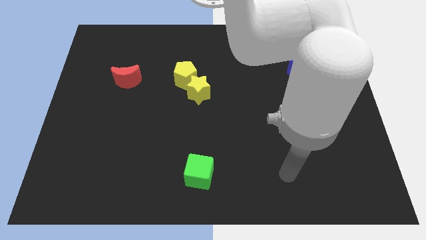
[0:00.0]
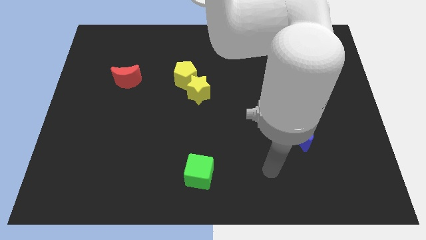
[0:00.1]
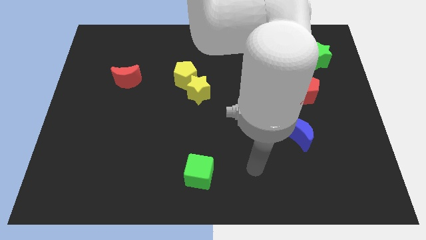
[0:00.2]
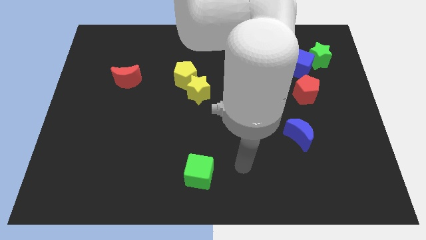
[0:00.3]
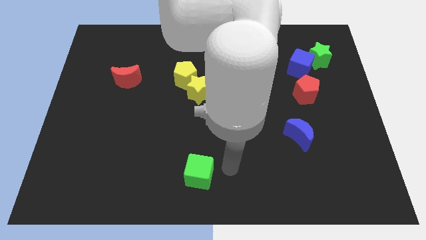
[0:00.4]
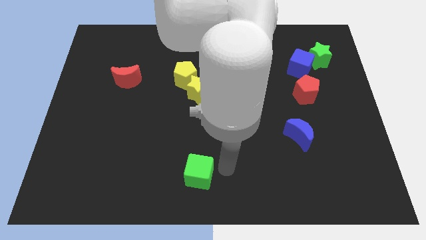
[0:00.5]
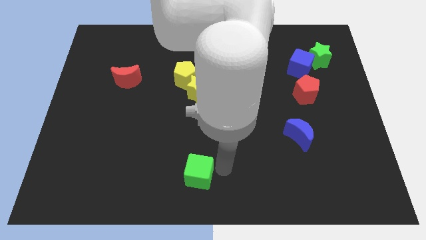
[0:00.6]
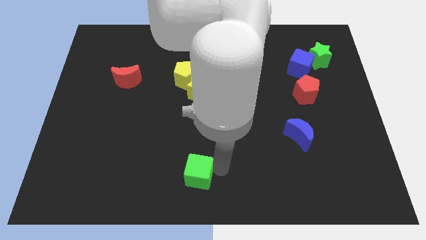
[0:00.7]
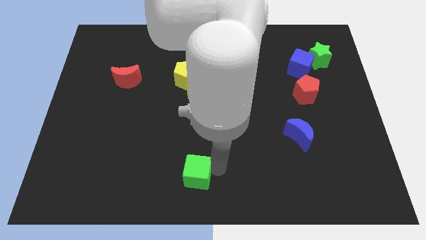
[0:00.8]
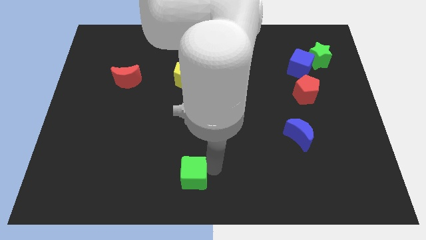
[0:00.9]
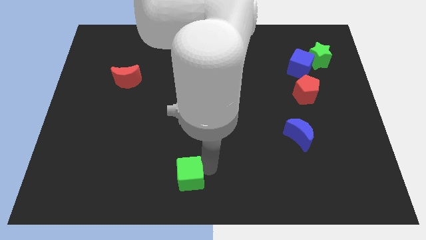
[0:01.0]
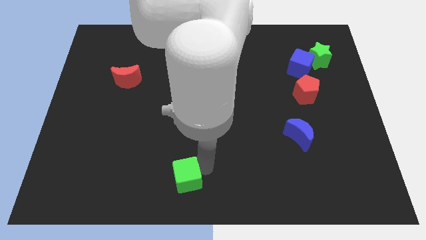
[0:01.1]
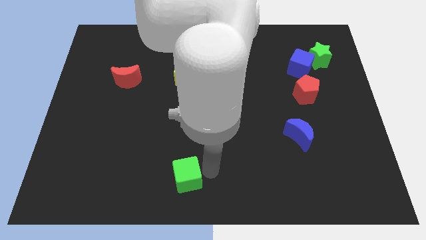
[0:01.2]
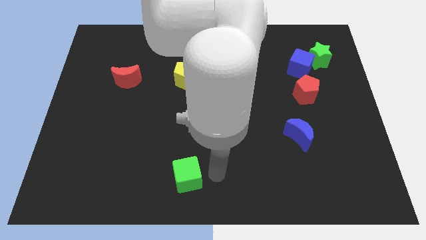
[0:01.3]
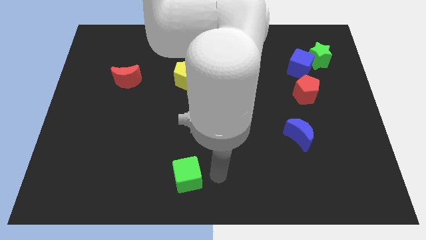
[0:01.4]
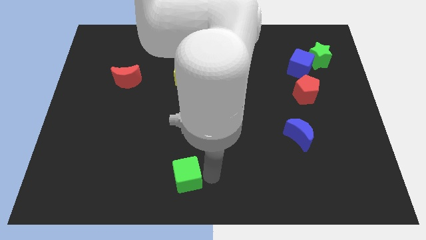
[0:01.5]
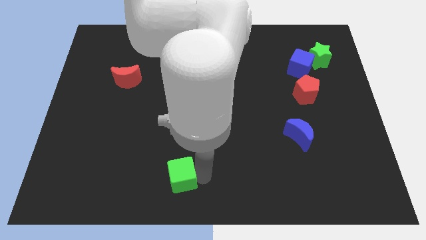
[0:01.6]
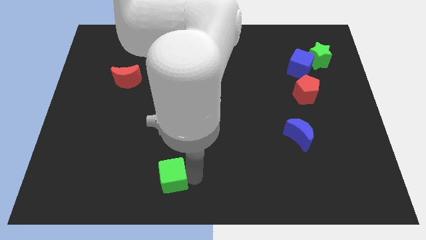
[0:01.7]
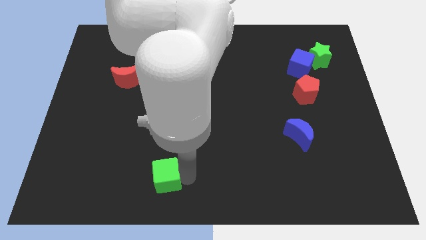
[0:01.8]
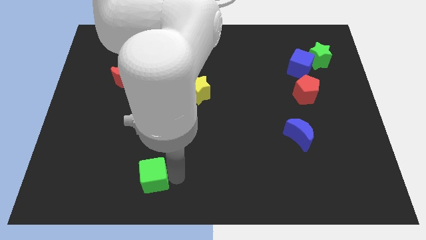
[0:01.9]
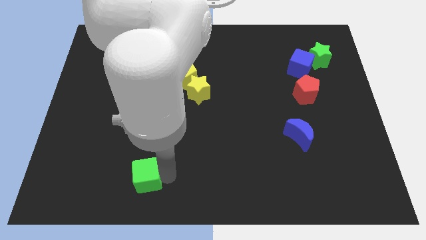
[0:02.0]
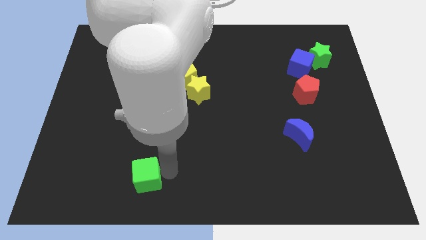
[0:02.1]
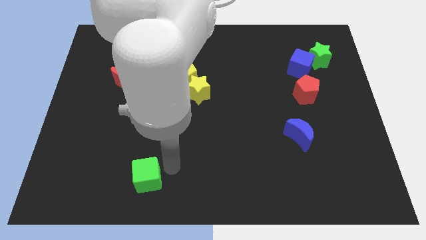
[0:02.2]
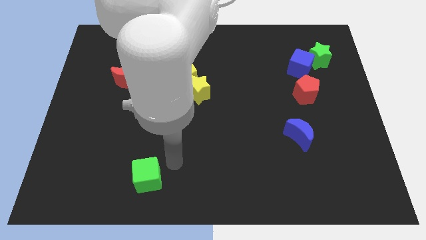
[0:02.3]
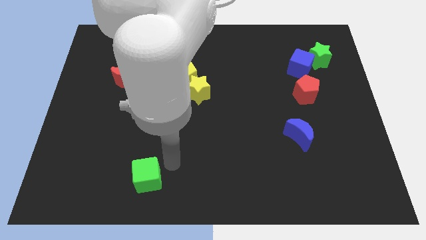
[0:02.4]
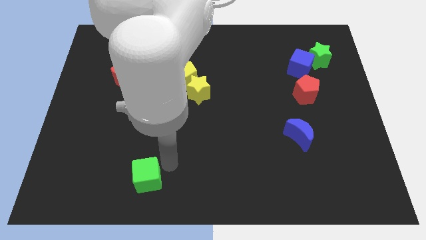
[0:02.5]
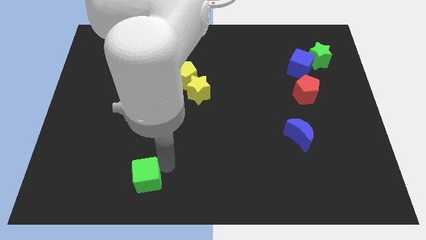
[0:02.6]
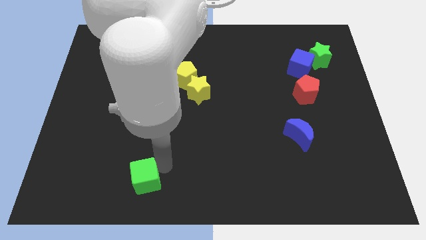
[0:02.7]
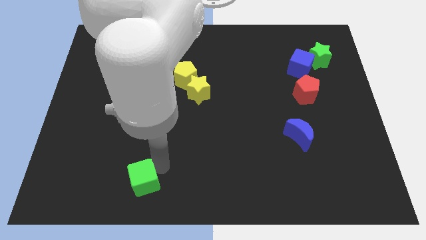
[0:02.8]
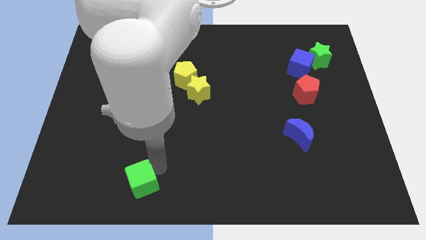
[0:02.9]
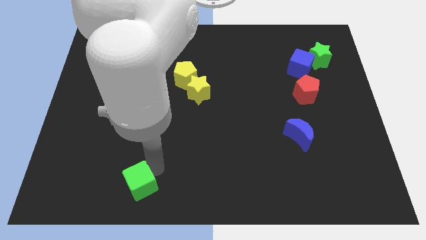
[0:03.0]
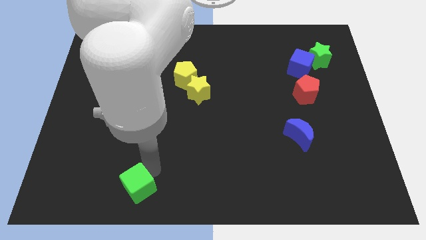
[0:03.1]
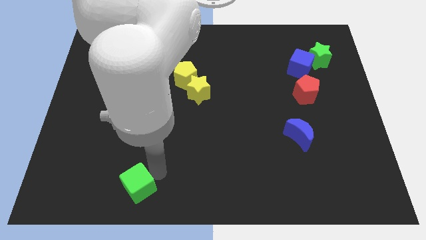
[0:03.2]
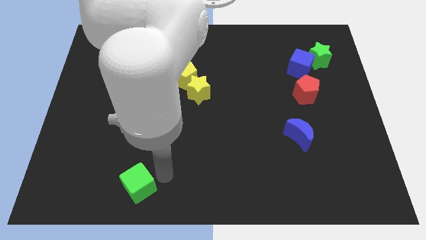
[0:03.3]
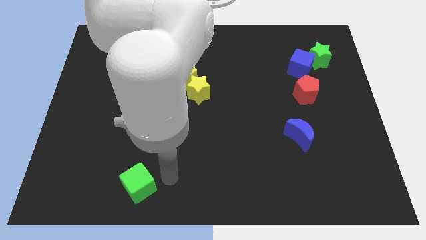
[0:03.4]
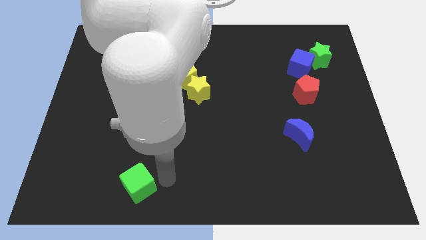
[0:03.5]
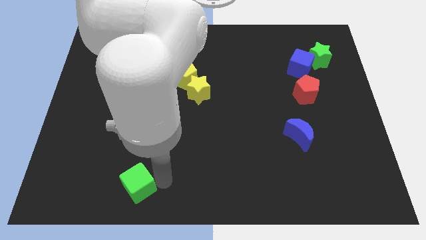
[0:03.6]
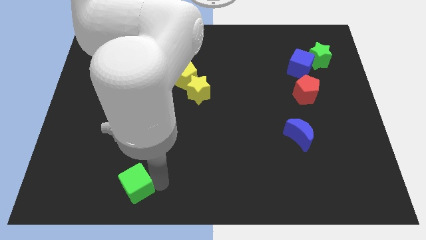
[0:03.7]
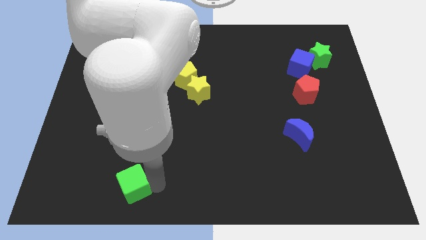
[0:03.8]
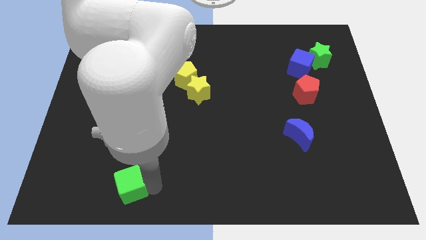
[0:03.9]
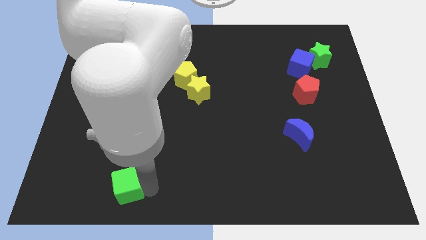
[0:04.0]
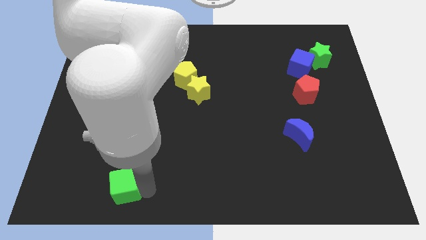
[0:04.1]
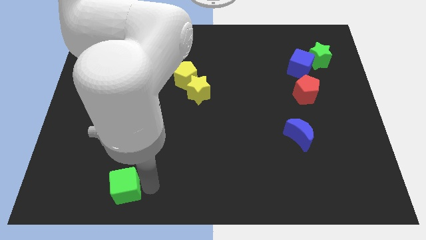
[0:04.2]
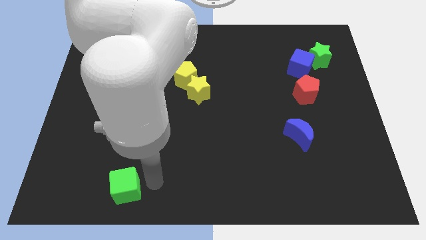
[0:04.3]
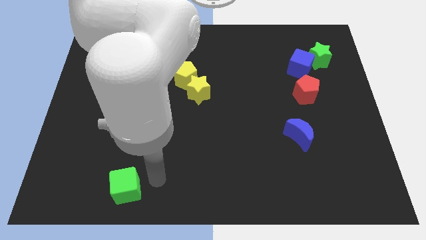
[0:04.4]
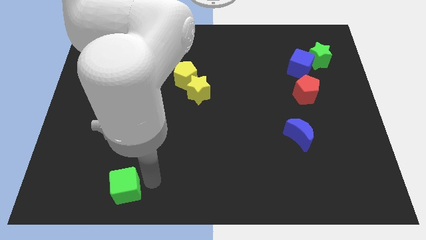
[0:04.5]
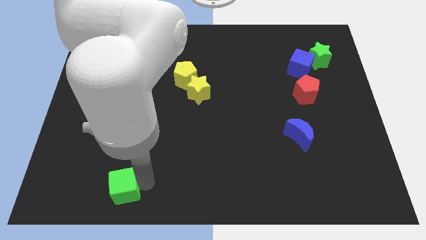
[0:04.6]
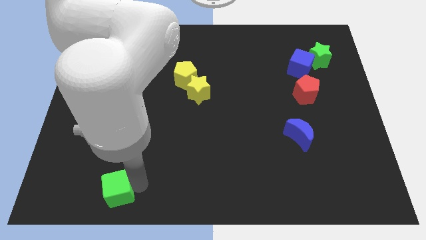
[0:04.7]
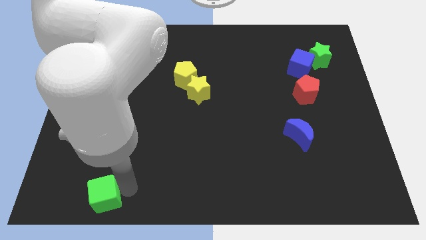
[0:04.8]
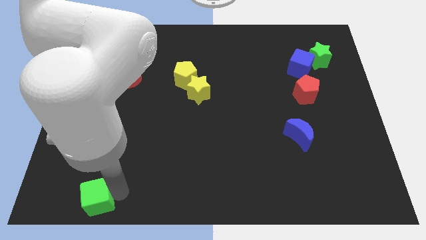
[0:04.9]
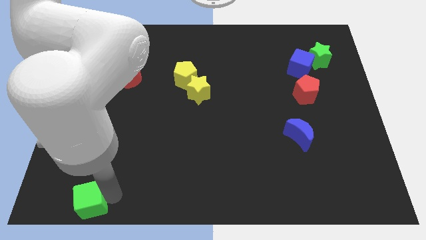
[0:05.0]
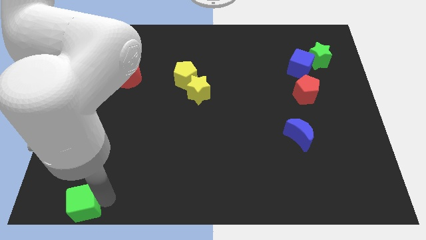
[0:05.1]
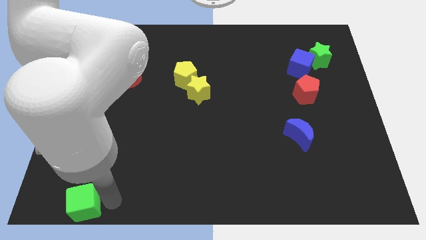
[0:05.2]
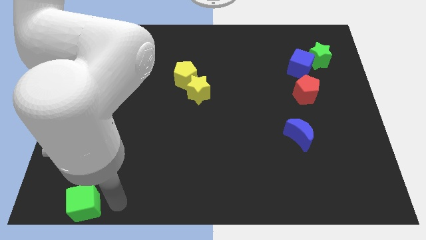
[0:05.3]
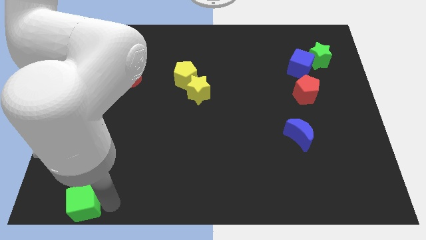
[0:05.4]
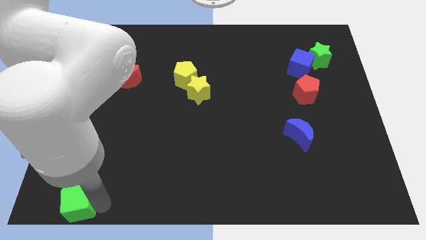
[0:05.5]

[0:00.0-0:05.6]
slide the green cube to the bottom left of the board

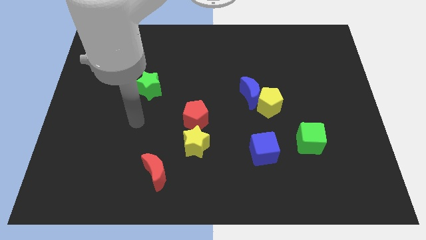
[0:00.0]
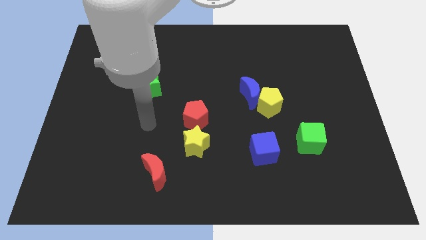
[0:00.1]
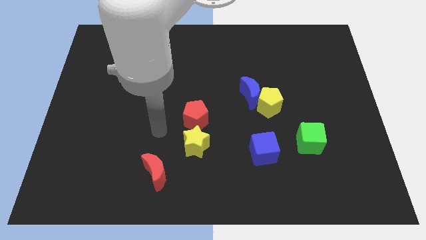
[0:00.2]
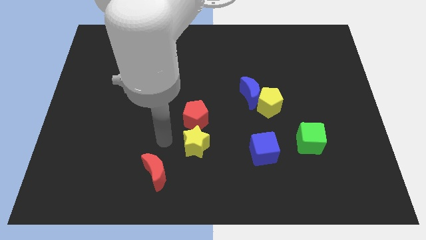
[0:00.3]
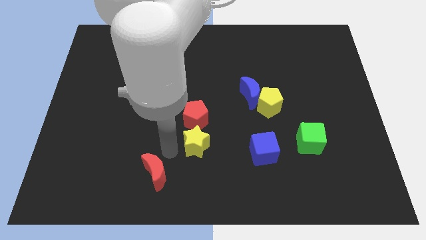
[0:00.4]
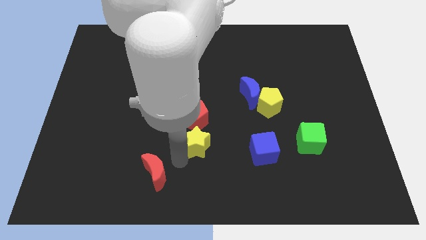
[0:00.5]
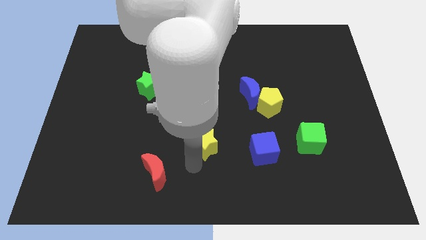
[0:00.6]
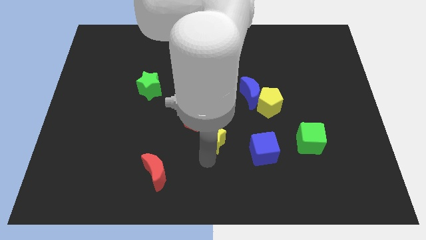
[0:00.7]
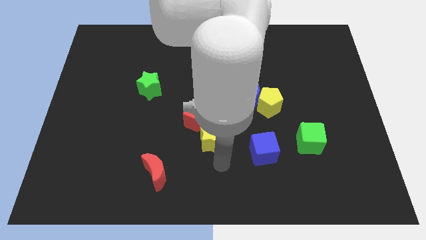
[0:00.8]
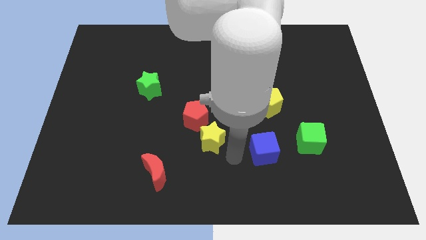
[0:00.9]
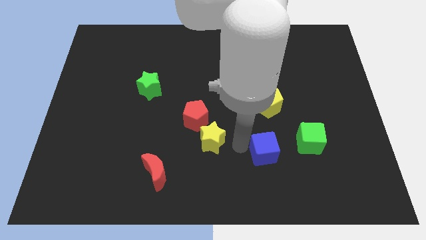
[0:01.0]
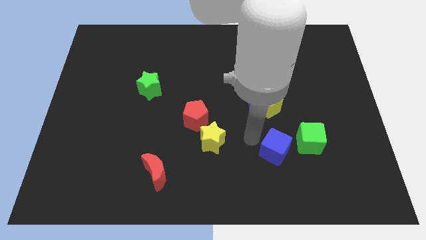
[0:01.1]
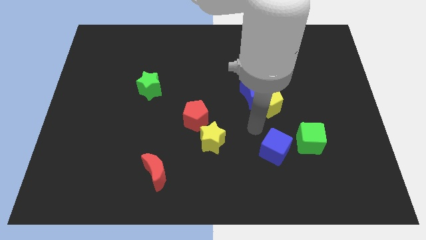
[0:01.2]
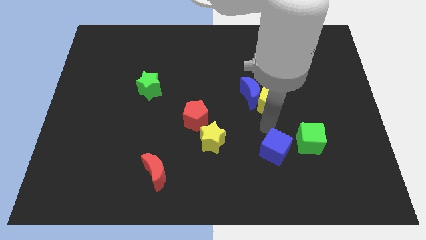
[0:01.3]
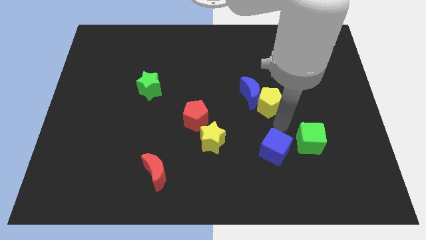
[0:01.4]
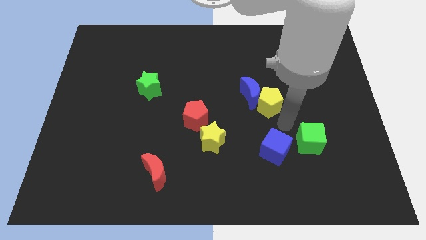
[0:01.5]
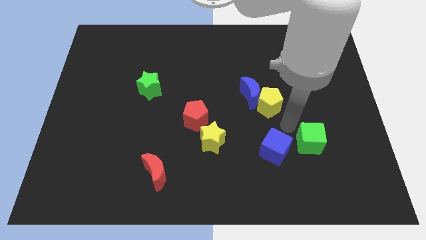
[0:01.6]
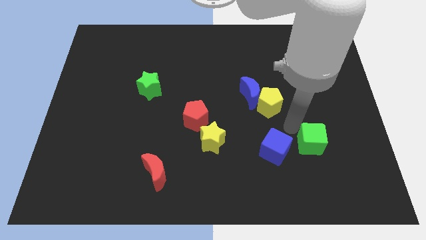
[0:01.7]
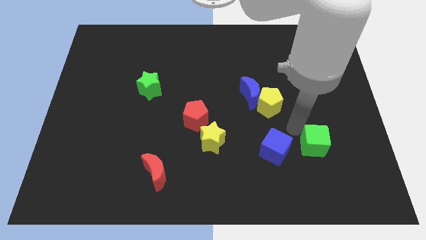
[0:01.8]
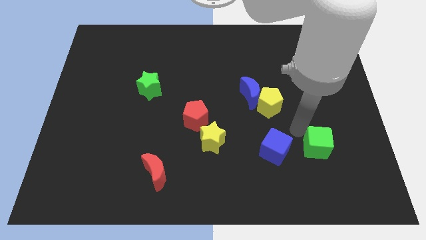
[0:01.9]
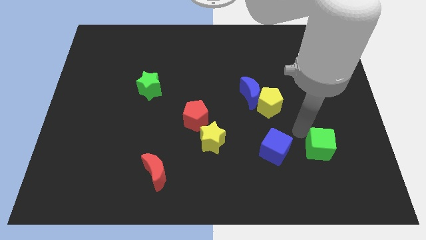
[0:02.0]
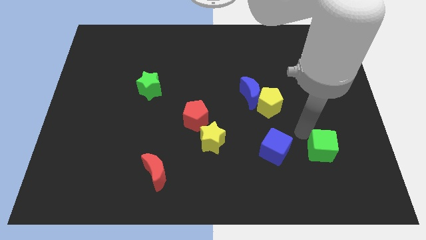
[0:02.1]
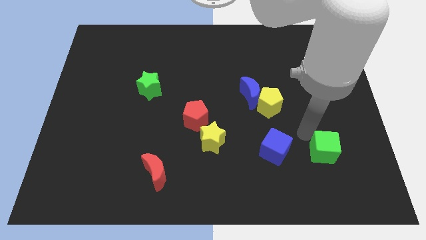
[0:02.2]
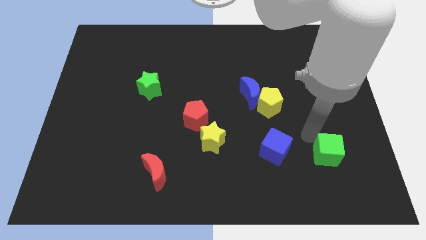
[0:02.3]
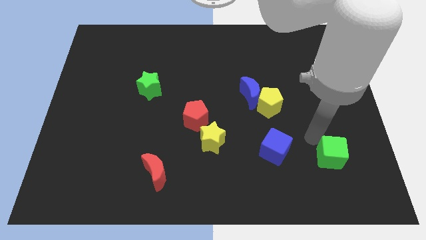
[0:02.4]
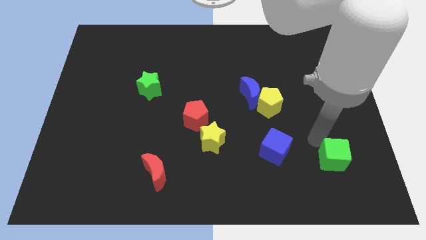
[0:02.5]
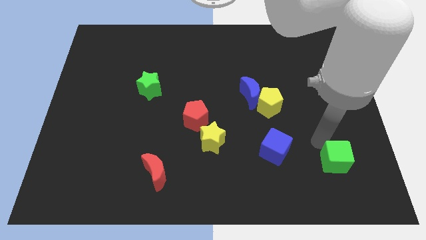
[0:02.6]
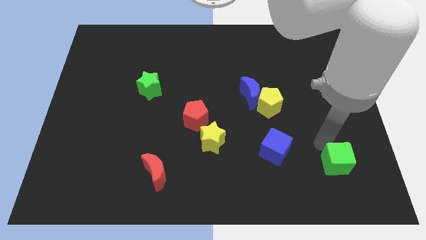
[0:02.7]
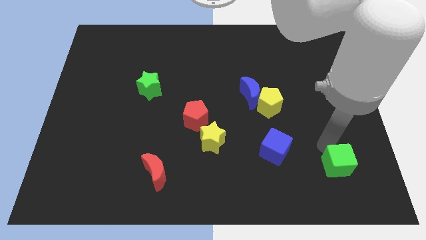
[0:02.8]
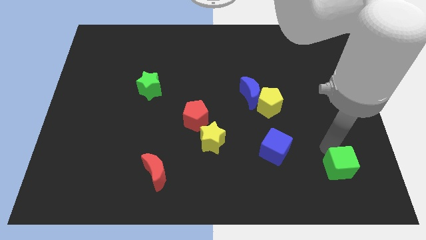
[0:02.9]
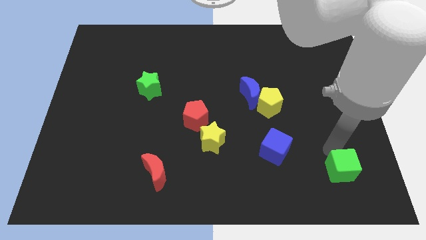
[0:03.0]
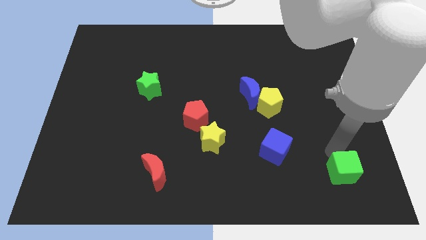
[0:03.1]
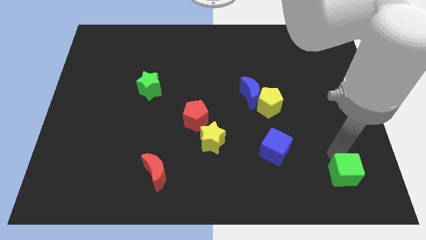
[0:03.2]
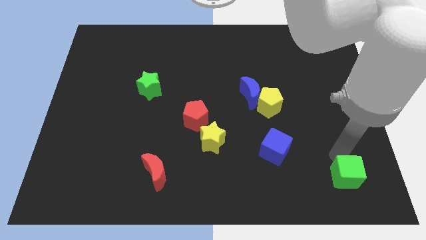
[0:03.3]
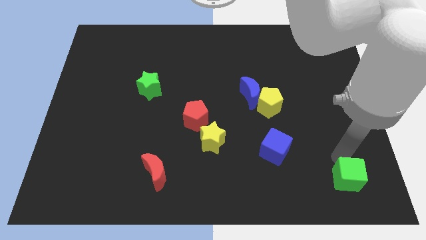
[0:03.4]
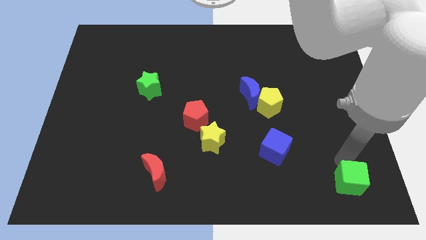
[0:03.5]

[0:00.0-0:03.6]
slide the green cube to the bottom right corner
